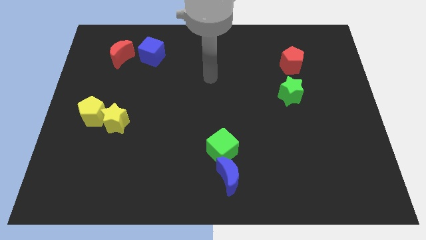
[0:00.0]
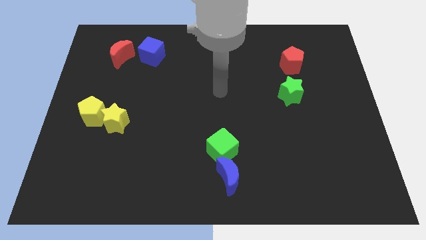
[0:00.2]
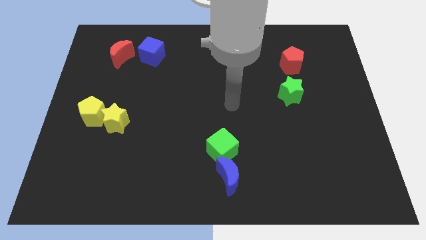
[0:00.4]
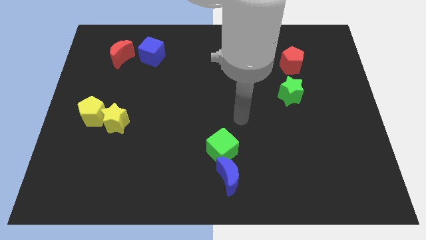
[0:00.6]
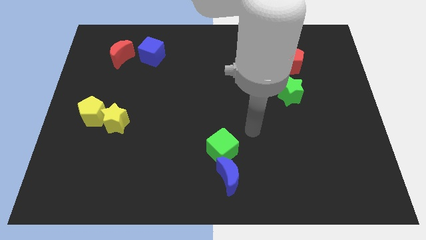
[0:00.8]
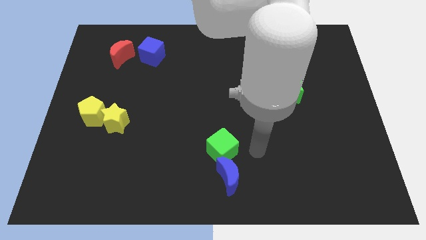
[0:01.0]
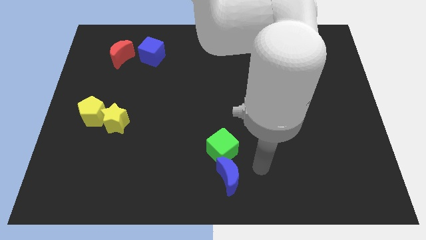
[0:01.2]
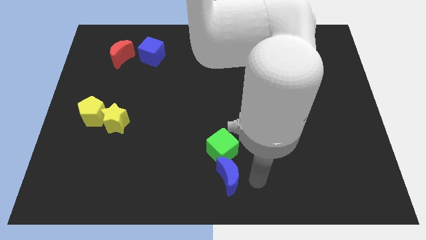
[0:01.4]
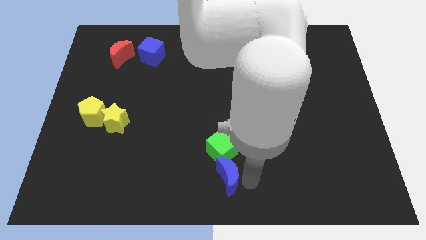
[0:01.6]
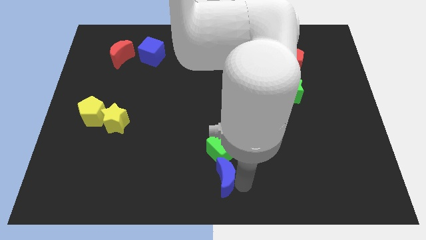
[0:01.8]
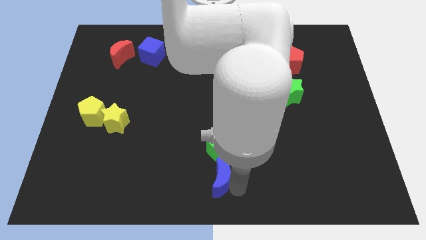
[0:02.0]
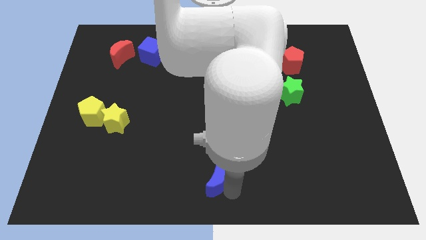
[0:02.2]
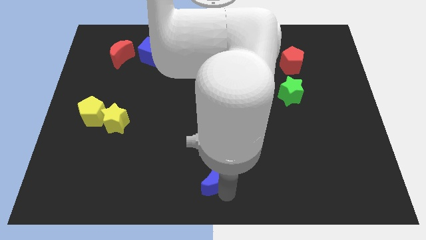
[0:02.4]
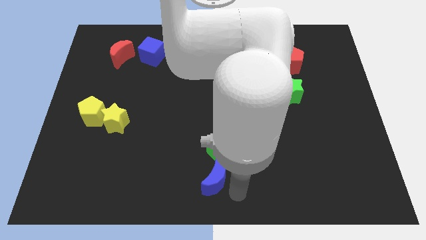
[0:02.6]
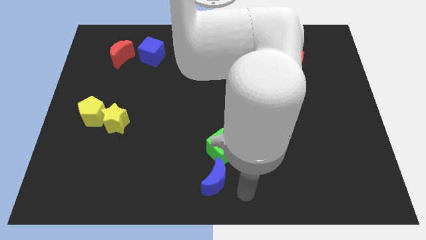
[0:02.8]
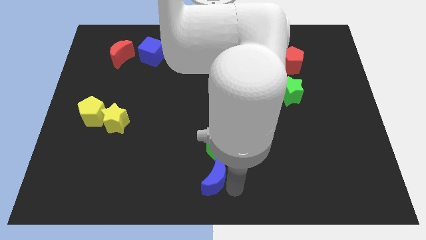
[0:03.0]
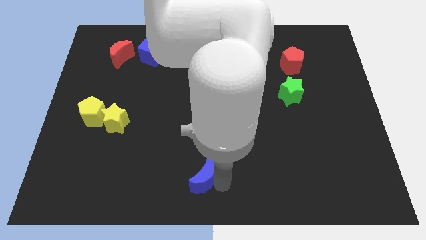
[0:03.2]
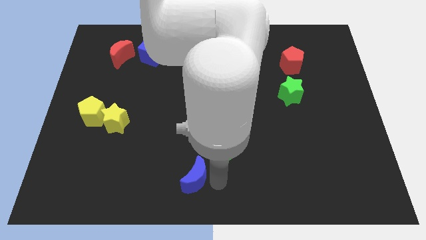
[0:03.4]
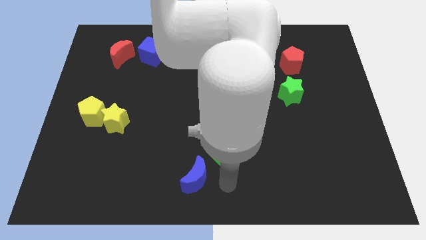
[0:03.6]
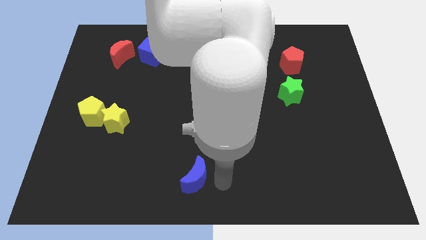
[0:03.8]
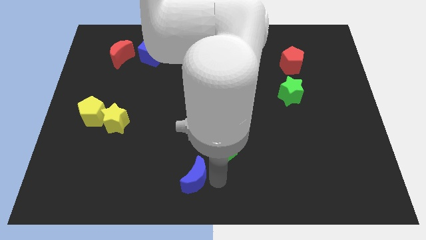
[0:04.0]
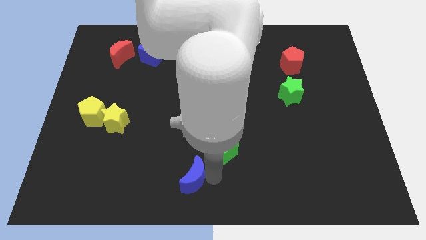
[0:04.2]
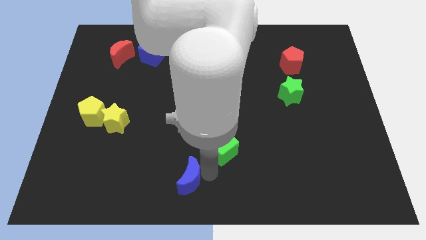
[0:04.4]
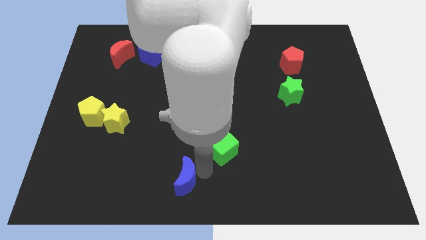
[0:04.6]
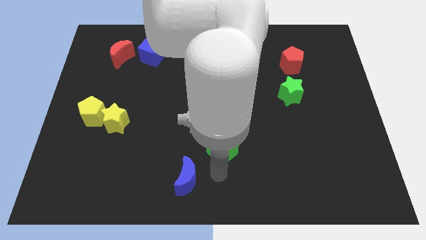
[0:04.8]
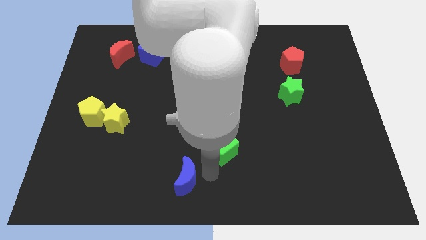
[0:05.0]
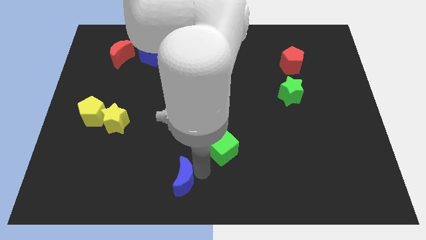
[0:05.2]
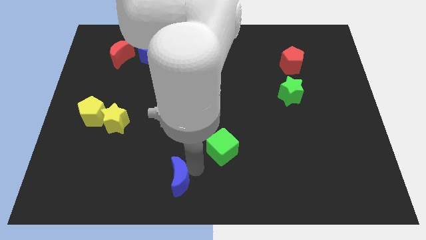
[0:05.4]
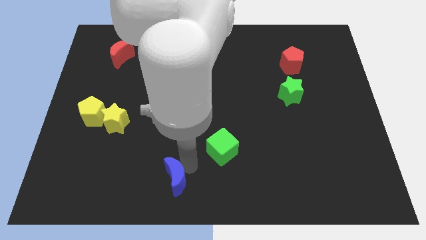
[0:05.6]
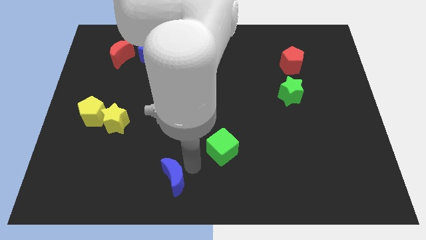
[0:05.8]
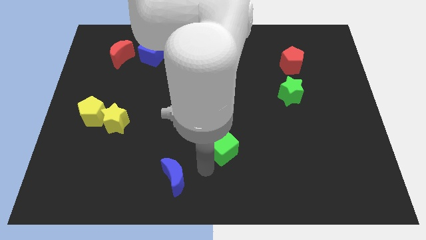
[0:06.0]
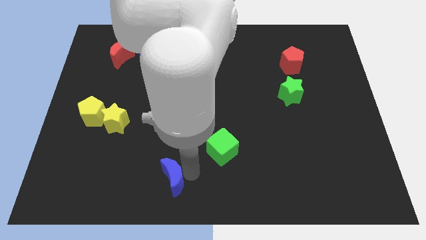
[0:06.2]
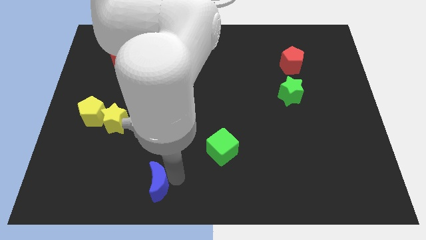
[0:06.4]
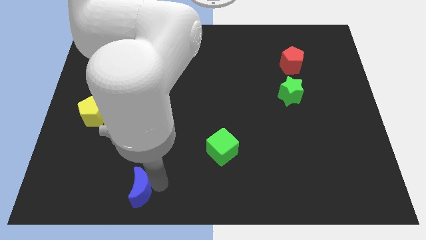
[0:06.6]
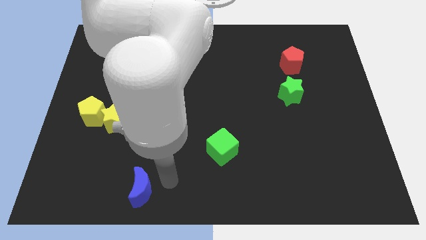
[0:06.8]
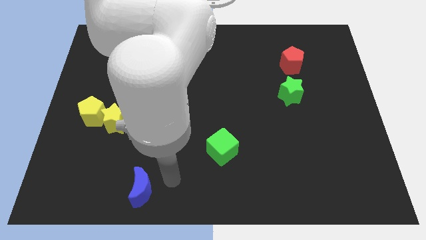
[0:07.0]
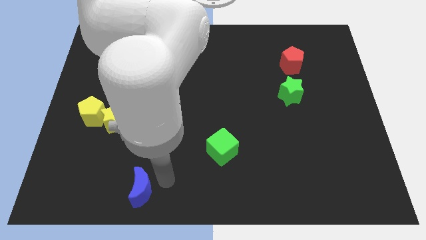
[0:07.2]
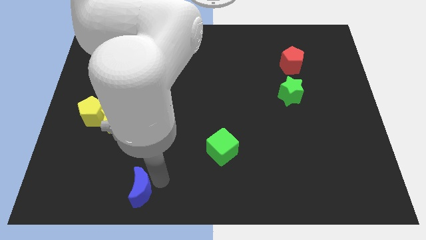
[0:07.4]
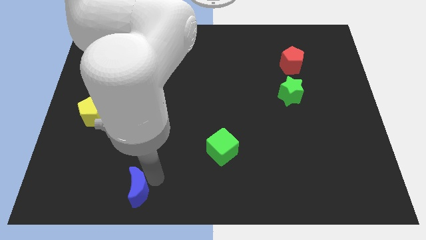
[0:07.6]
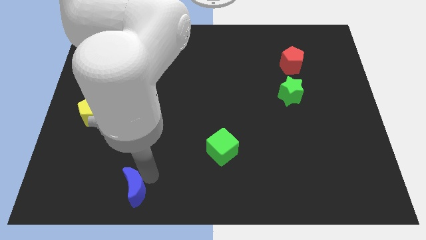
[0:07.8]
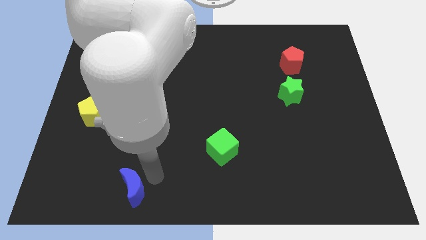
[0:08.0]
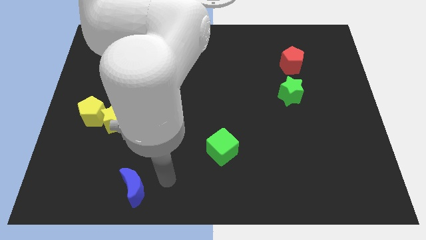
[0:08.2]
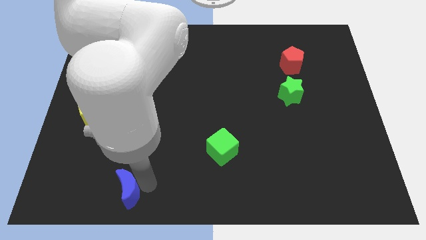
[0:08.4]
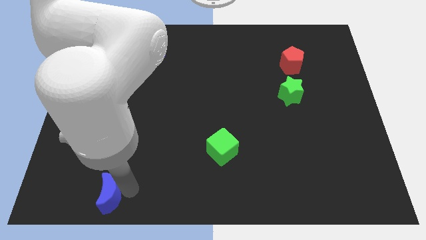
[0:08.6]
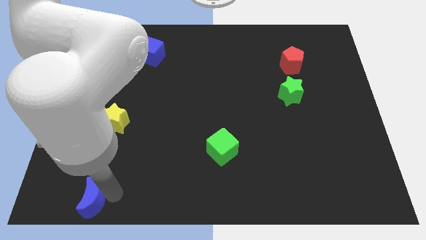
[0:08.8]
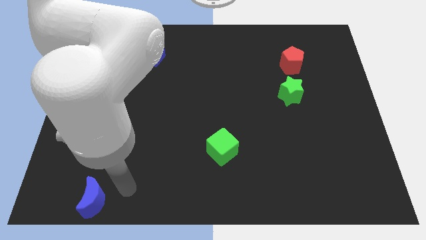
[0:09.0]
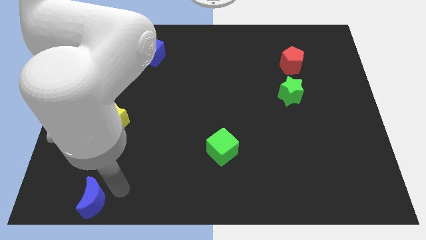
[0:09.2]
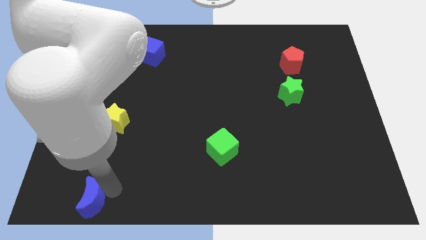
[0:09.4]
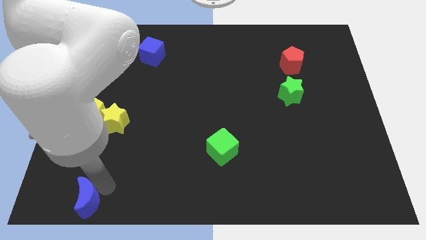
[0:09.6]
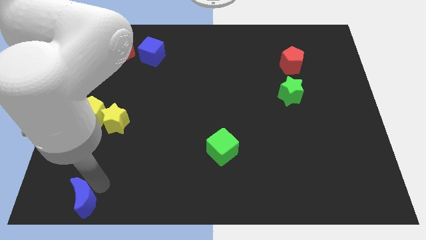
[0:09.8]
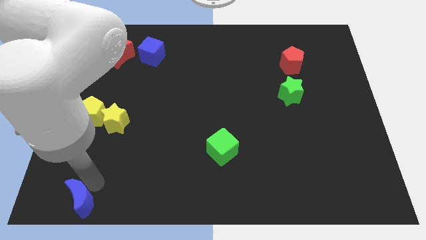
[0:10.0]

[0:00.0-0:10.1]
push the blue moon to the bottom left of the board

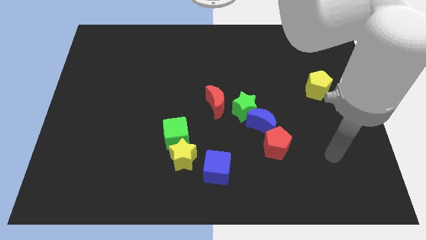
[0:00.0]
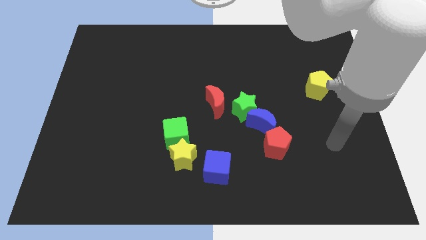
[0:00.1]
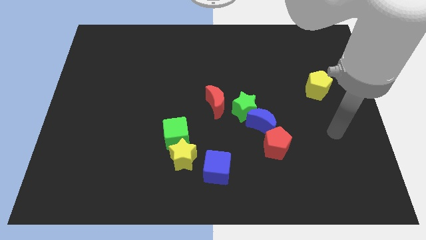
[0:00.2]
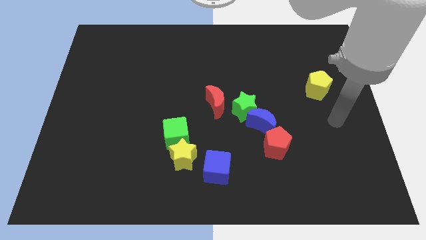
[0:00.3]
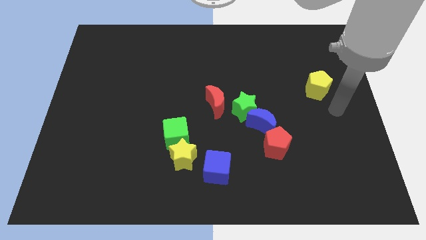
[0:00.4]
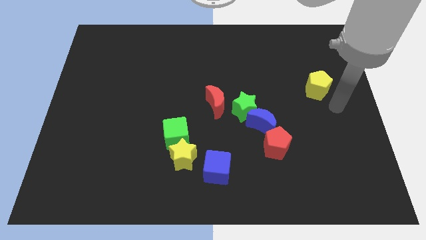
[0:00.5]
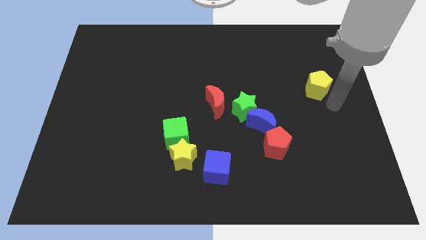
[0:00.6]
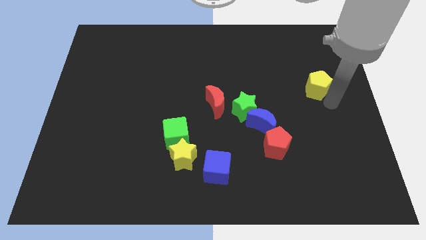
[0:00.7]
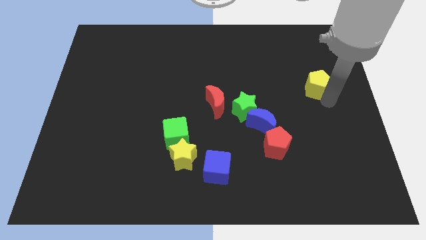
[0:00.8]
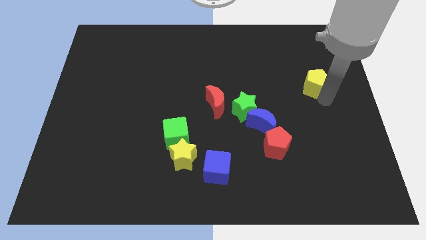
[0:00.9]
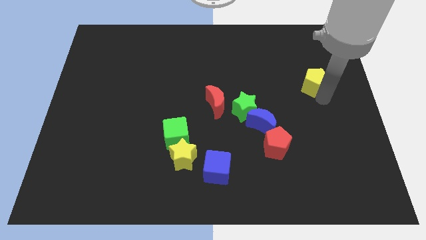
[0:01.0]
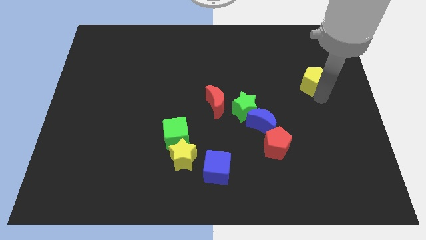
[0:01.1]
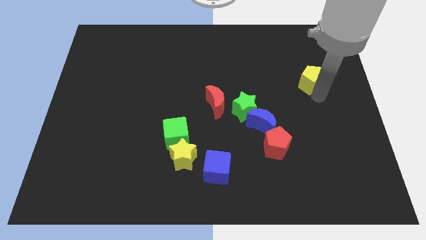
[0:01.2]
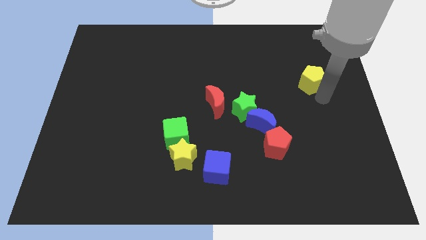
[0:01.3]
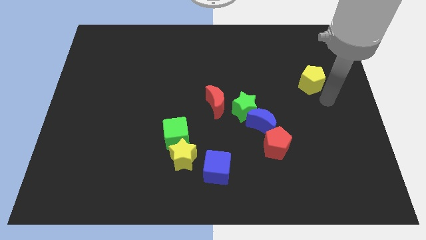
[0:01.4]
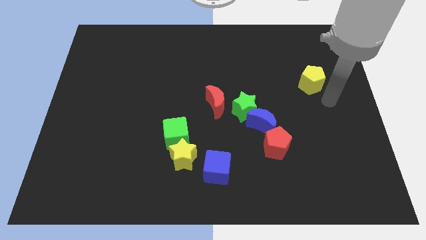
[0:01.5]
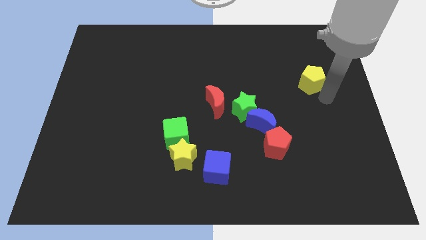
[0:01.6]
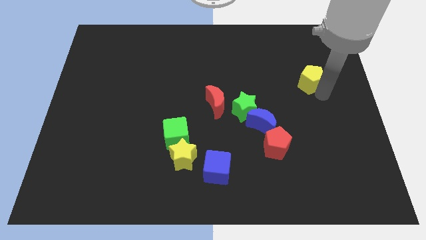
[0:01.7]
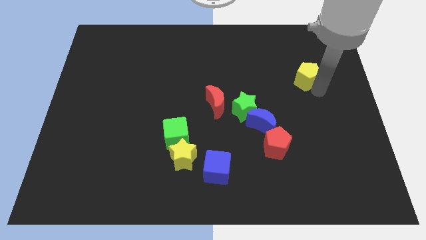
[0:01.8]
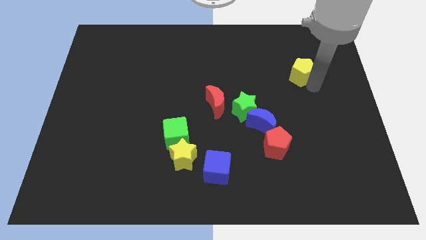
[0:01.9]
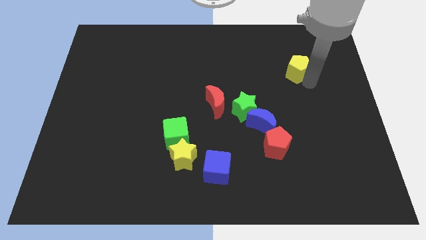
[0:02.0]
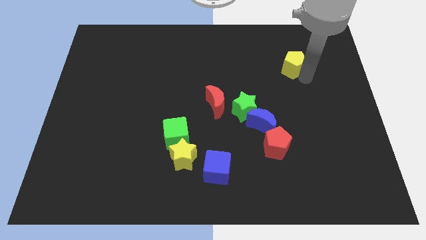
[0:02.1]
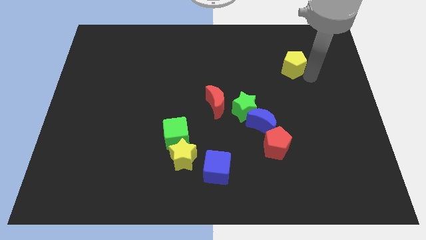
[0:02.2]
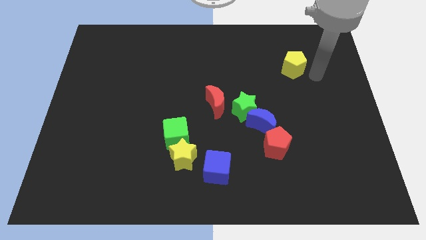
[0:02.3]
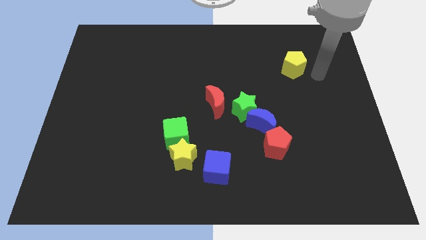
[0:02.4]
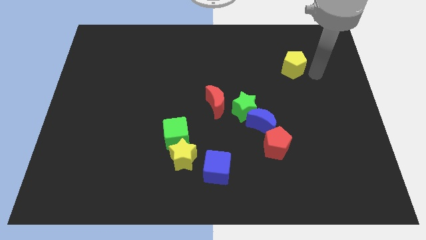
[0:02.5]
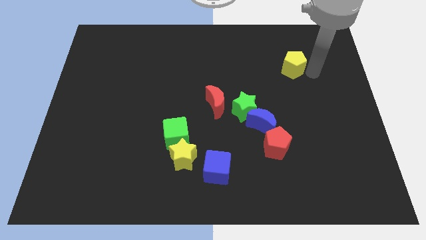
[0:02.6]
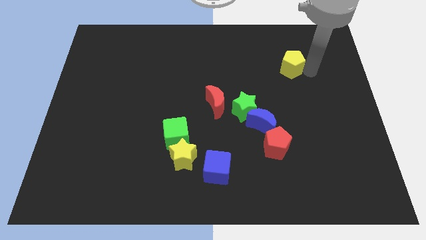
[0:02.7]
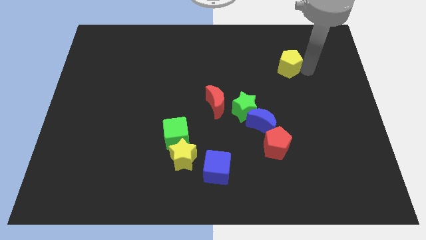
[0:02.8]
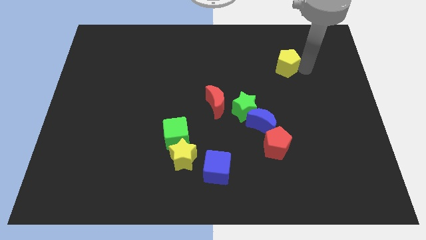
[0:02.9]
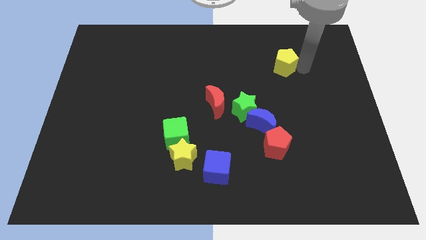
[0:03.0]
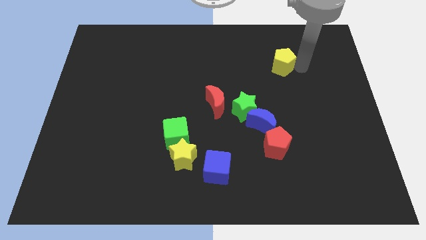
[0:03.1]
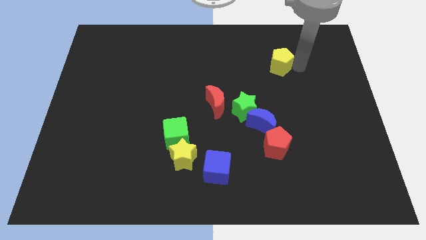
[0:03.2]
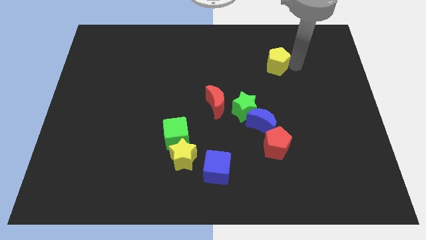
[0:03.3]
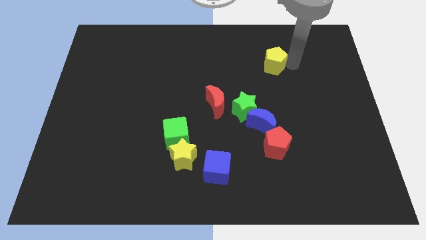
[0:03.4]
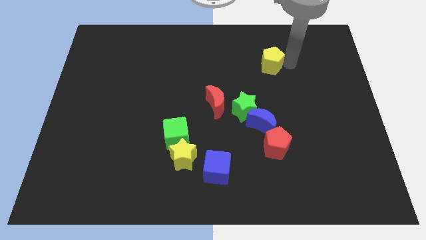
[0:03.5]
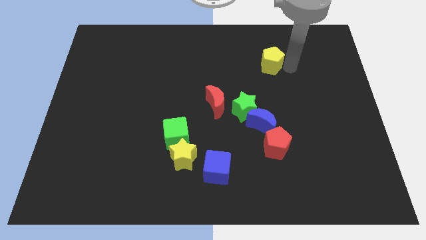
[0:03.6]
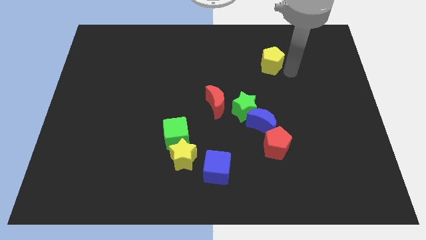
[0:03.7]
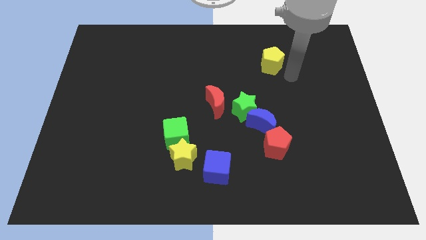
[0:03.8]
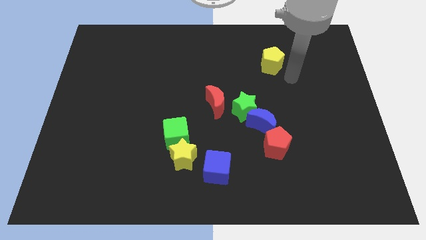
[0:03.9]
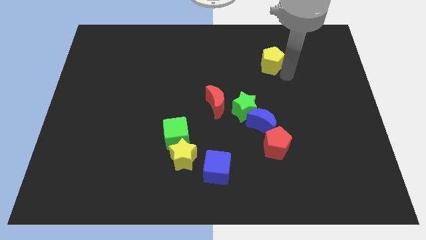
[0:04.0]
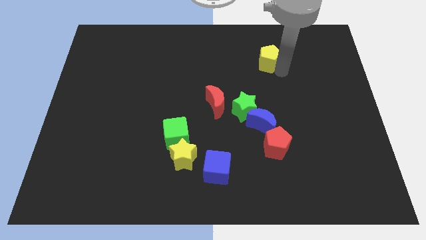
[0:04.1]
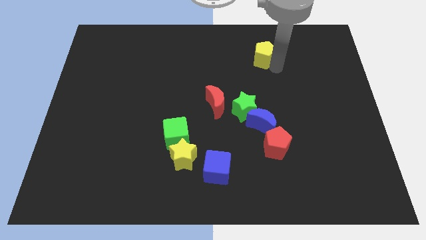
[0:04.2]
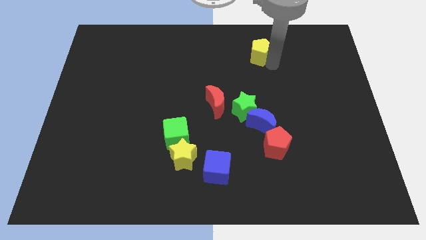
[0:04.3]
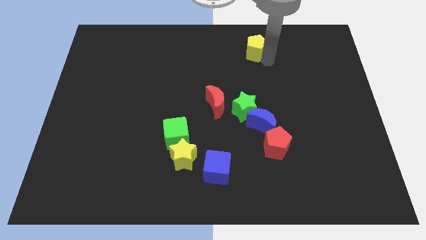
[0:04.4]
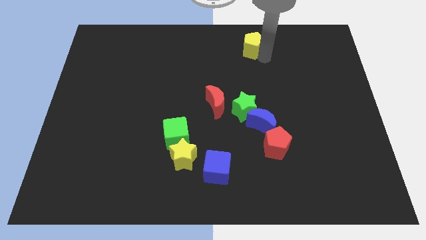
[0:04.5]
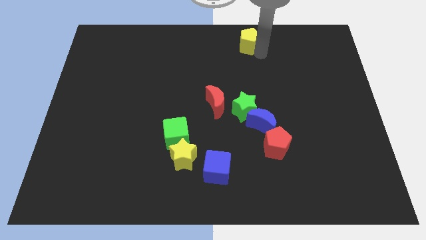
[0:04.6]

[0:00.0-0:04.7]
push the yellow pentagon to the towards your base
